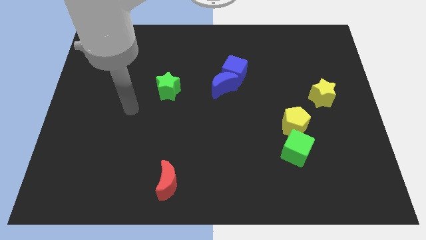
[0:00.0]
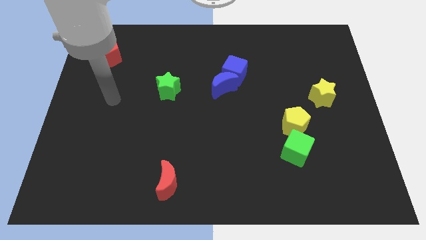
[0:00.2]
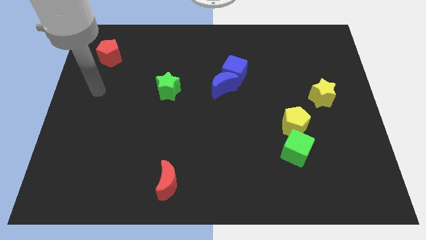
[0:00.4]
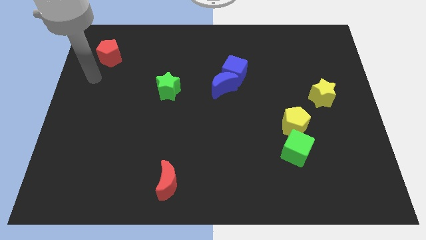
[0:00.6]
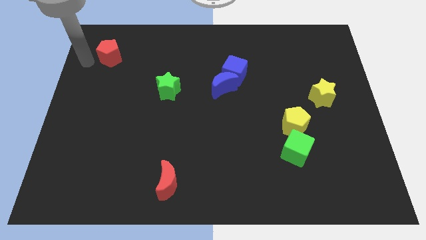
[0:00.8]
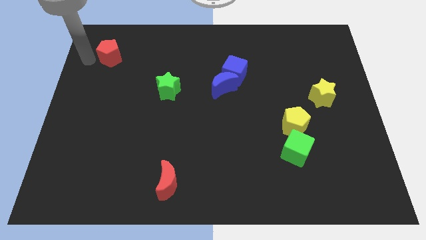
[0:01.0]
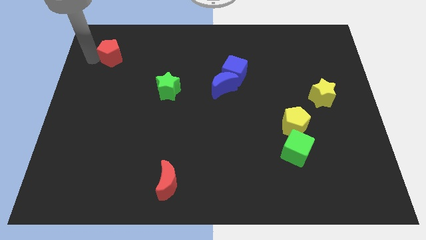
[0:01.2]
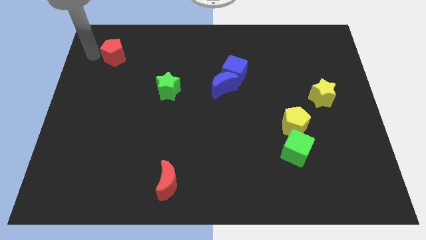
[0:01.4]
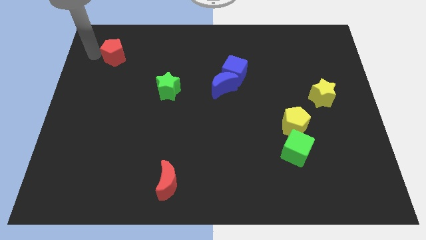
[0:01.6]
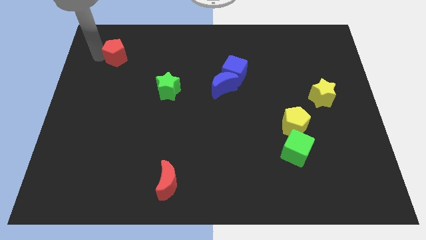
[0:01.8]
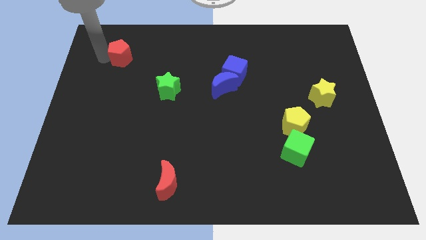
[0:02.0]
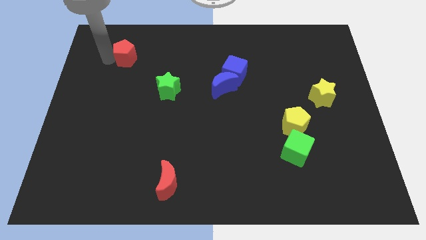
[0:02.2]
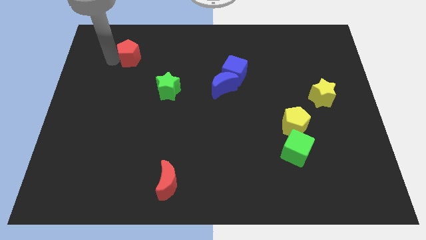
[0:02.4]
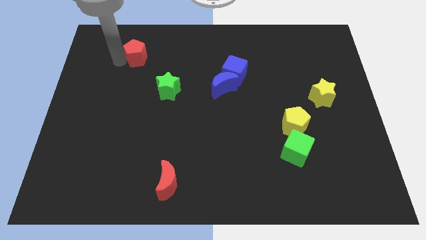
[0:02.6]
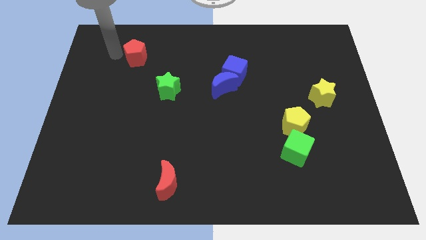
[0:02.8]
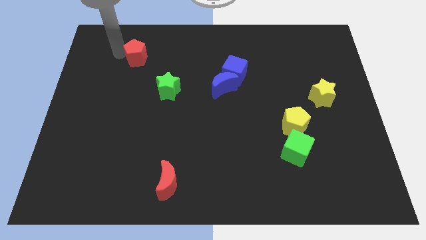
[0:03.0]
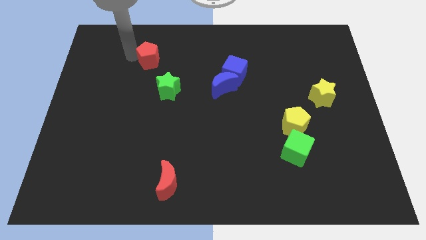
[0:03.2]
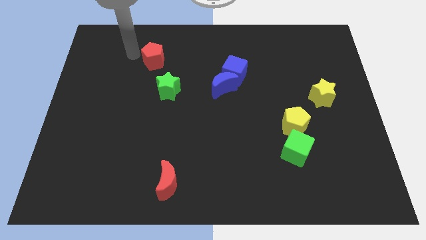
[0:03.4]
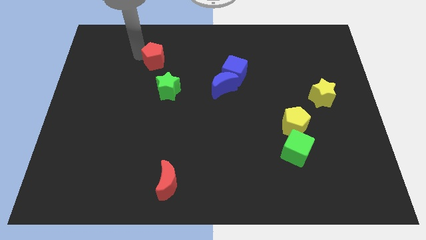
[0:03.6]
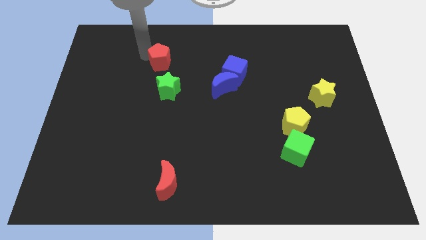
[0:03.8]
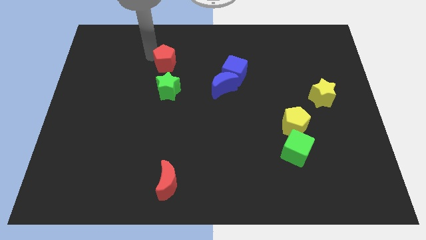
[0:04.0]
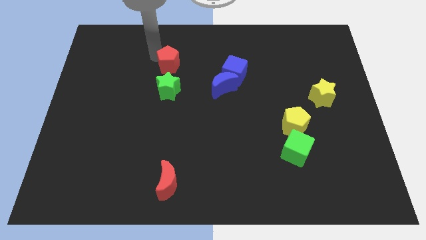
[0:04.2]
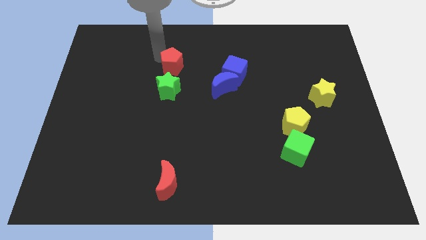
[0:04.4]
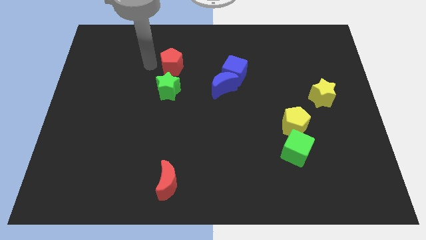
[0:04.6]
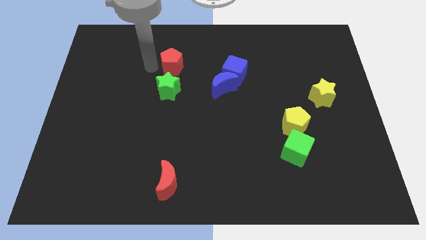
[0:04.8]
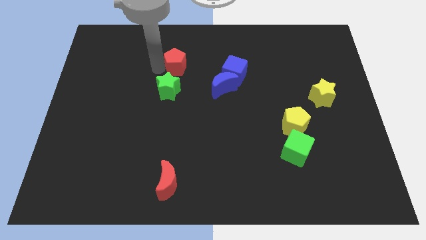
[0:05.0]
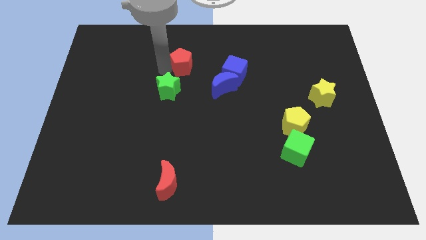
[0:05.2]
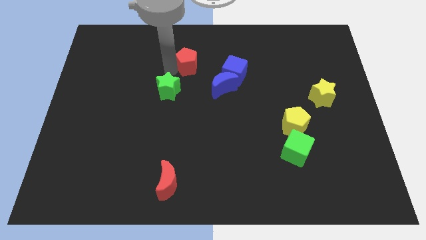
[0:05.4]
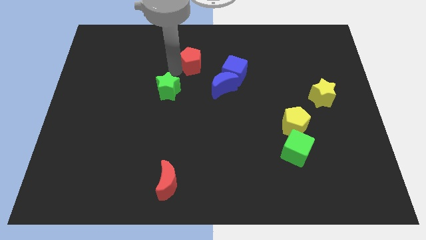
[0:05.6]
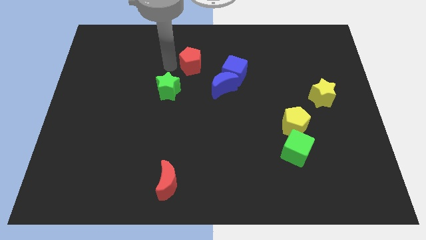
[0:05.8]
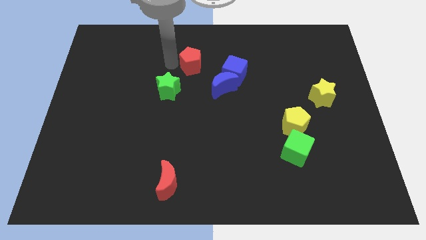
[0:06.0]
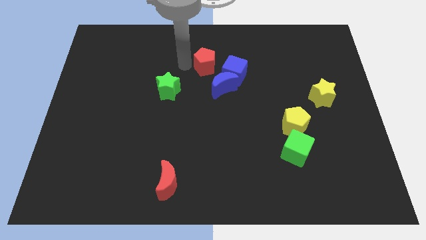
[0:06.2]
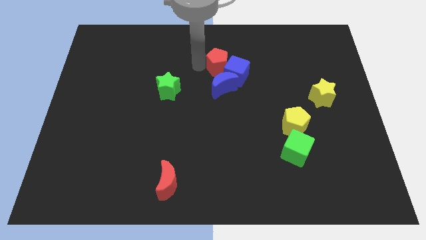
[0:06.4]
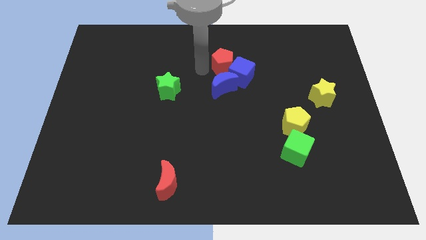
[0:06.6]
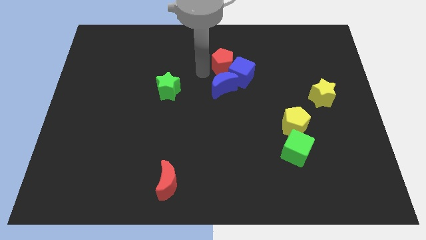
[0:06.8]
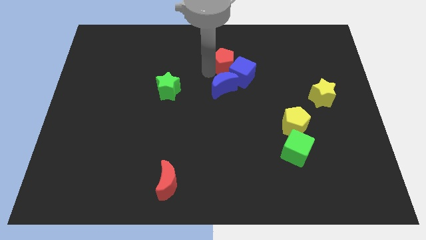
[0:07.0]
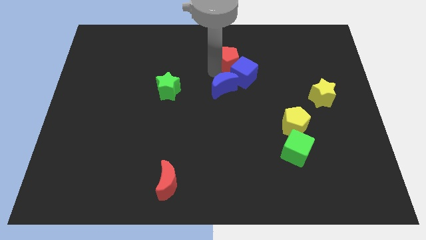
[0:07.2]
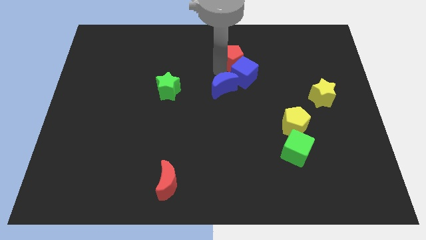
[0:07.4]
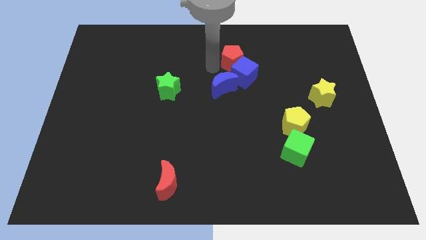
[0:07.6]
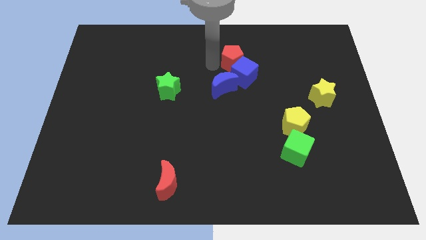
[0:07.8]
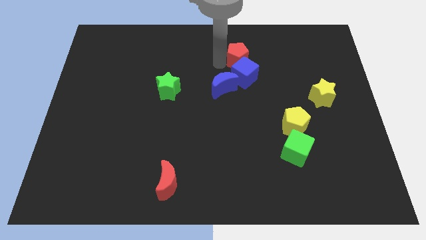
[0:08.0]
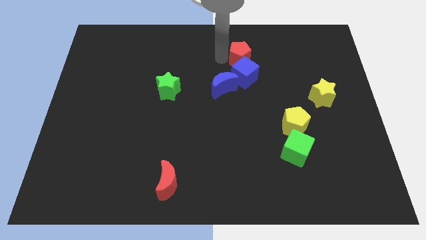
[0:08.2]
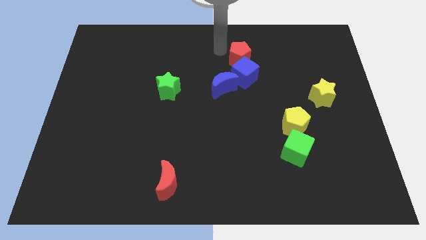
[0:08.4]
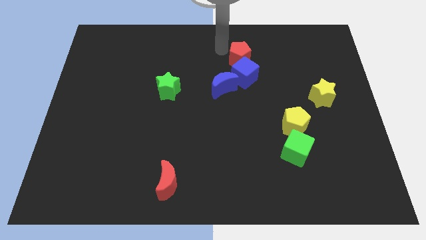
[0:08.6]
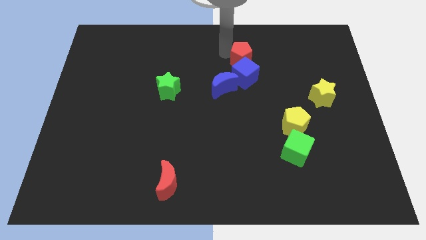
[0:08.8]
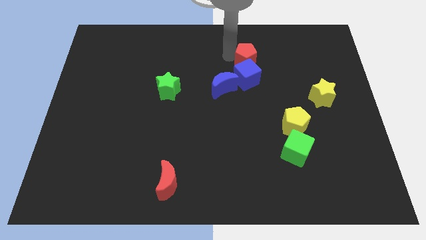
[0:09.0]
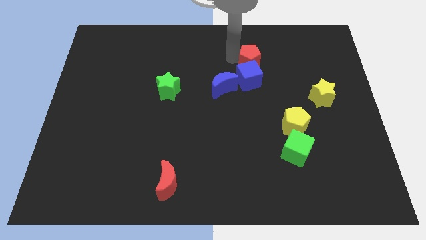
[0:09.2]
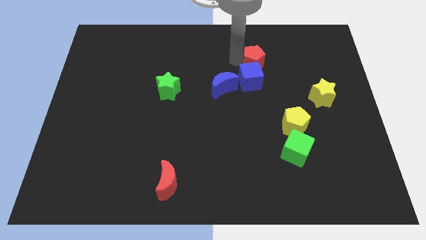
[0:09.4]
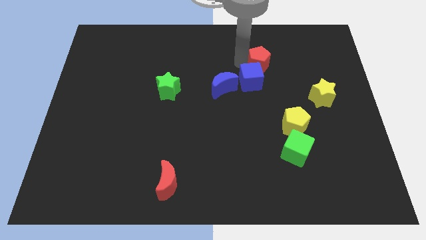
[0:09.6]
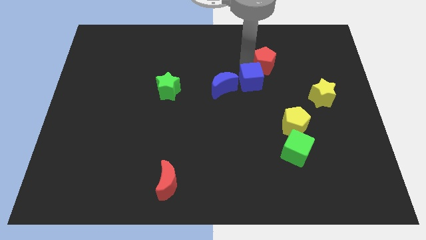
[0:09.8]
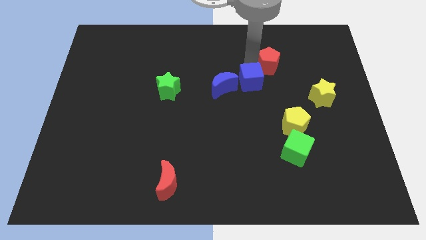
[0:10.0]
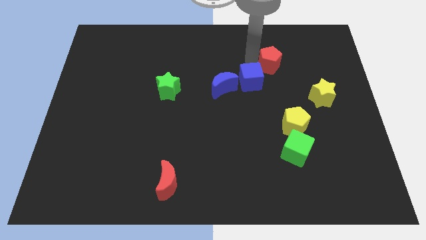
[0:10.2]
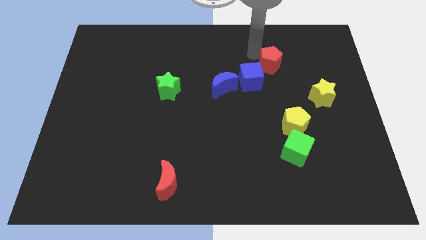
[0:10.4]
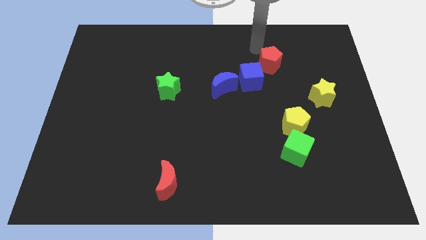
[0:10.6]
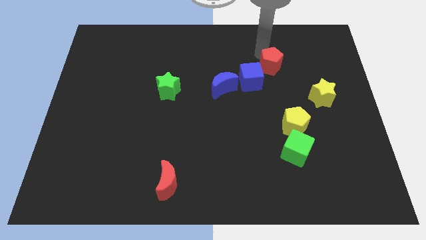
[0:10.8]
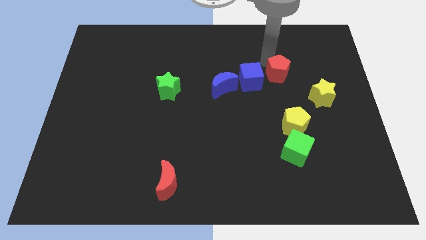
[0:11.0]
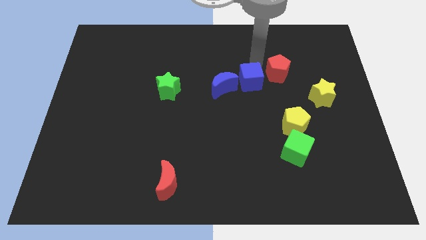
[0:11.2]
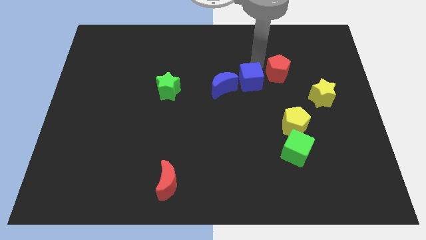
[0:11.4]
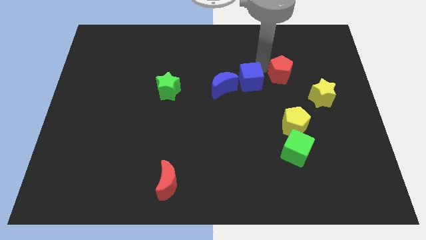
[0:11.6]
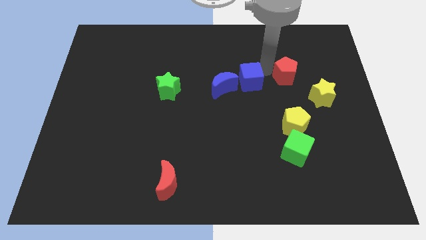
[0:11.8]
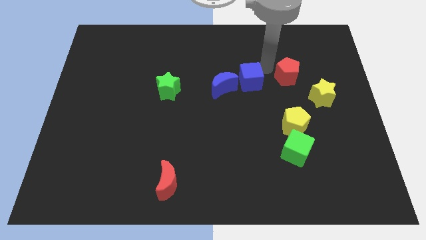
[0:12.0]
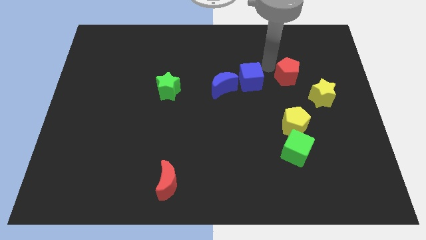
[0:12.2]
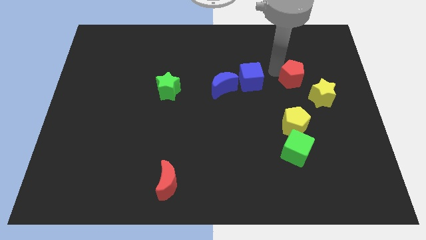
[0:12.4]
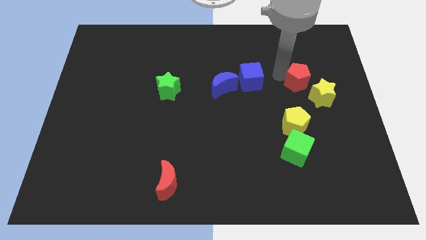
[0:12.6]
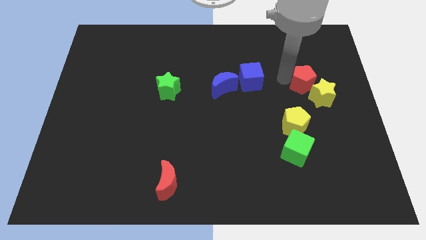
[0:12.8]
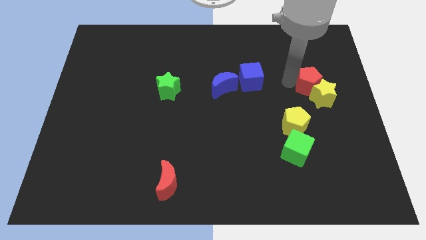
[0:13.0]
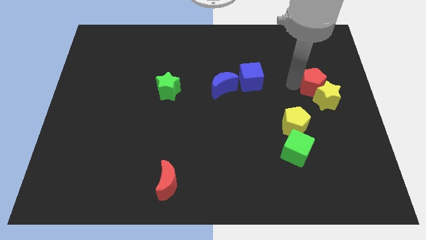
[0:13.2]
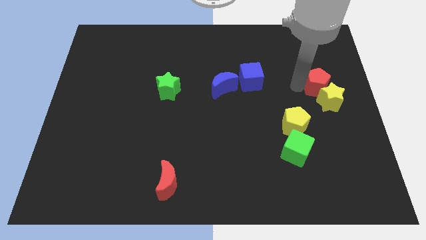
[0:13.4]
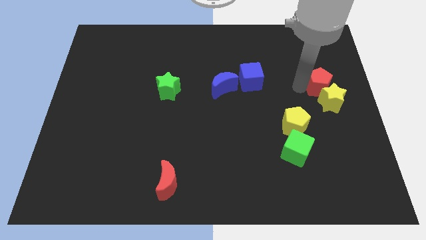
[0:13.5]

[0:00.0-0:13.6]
move the red pentagon to the right side of the board
